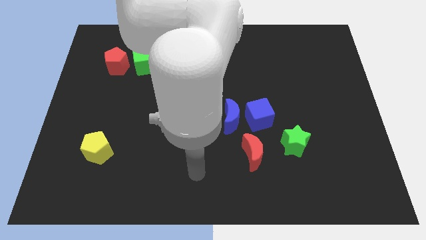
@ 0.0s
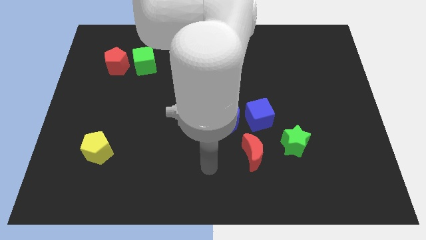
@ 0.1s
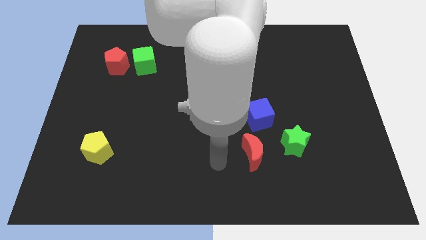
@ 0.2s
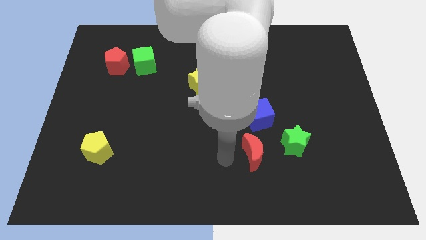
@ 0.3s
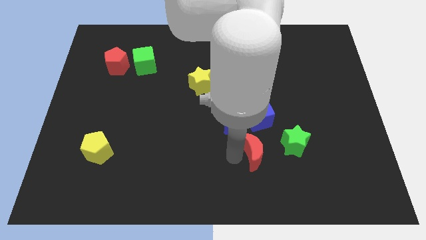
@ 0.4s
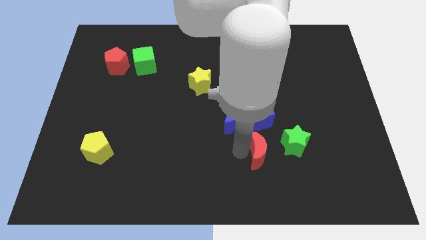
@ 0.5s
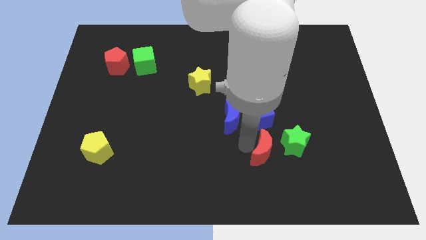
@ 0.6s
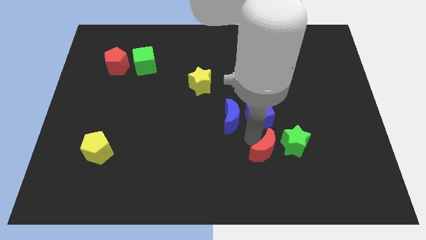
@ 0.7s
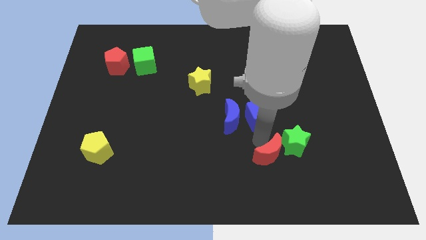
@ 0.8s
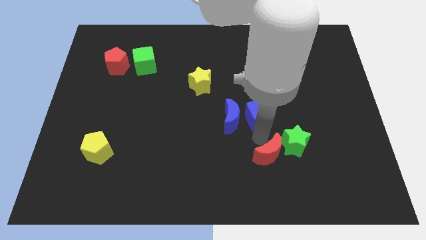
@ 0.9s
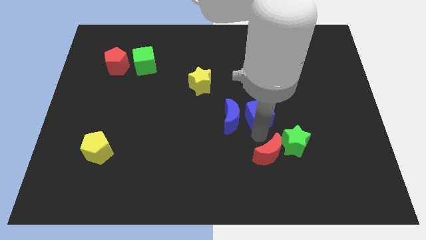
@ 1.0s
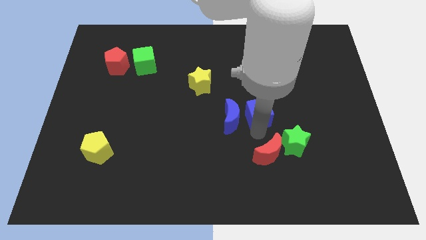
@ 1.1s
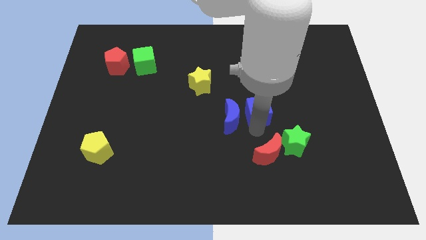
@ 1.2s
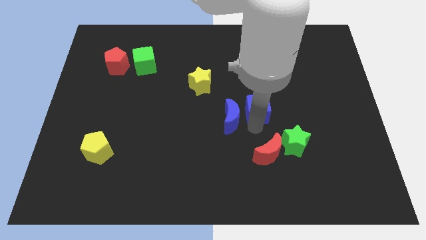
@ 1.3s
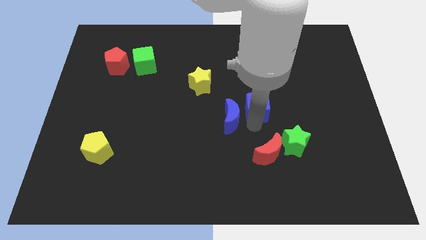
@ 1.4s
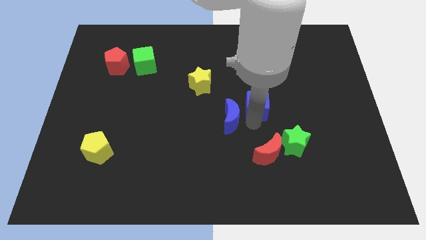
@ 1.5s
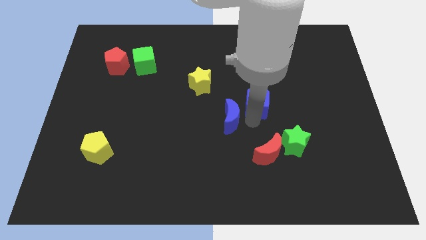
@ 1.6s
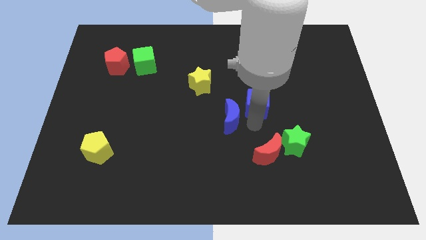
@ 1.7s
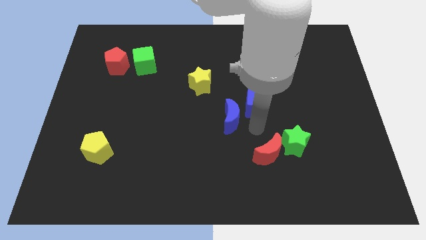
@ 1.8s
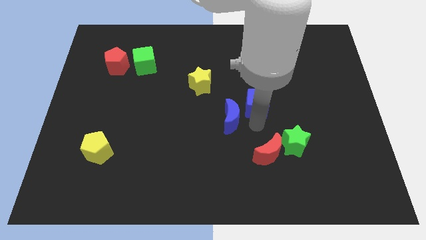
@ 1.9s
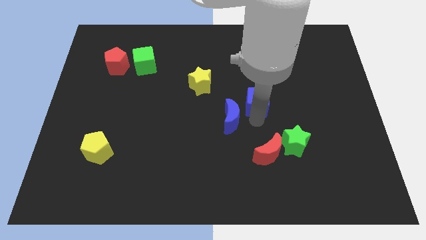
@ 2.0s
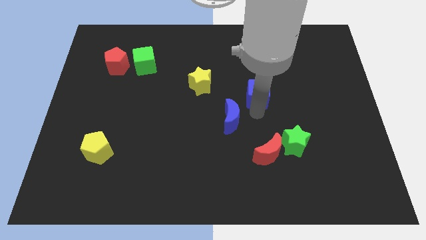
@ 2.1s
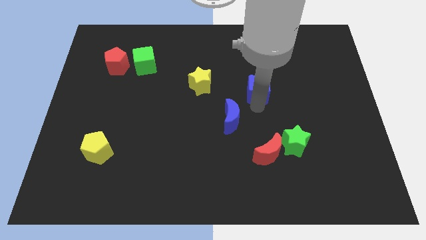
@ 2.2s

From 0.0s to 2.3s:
push the blue cube upwards a little

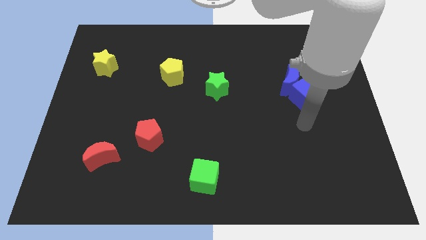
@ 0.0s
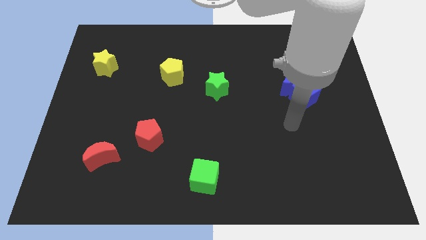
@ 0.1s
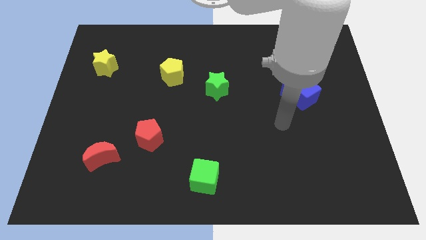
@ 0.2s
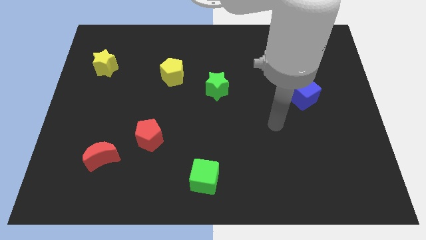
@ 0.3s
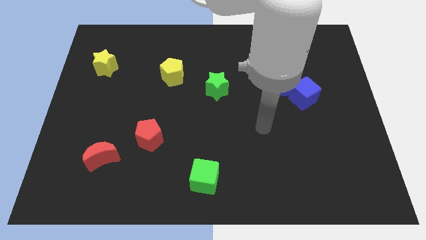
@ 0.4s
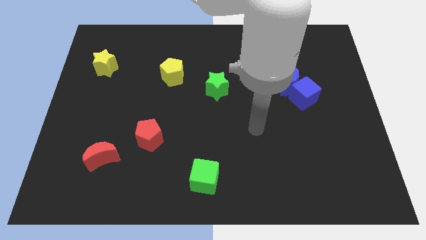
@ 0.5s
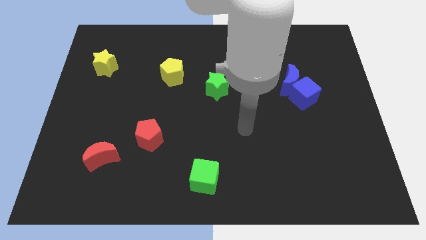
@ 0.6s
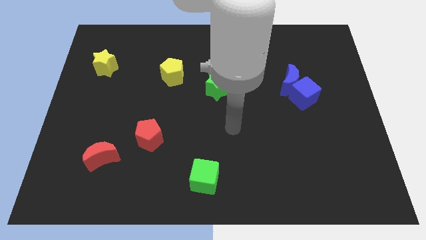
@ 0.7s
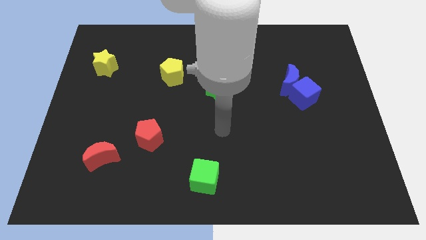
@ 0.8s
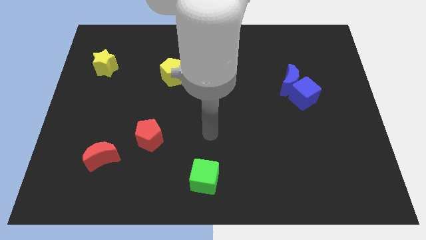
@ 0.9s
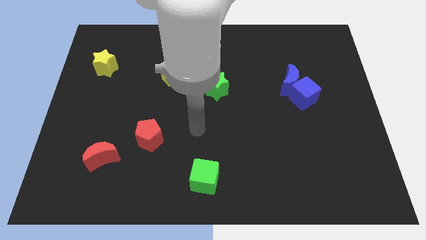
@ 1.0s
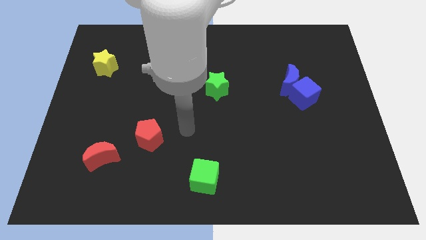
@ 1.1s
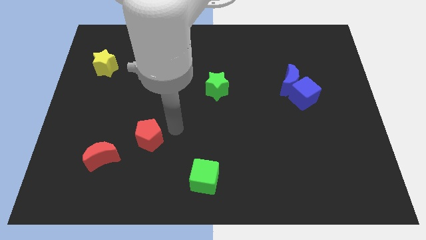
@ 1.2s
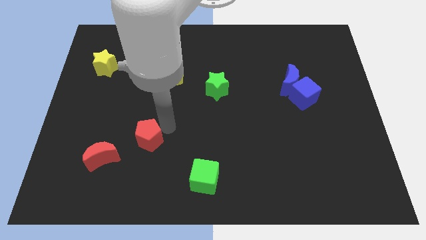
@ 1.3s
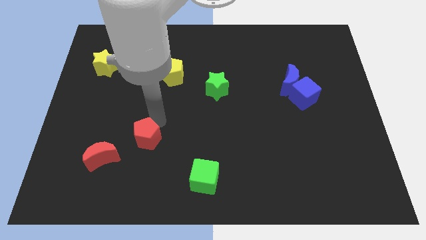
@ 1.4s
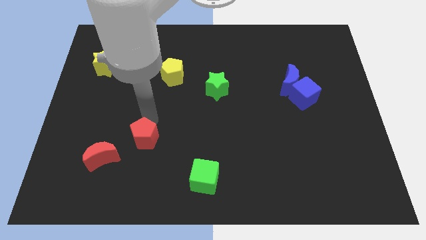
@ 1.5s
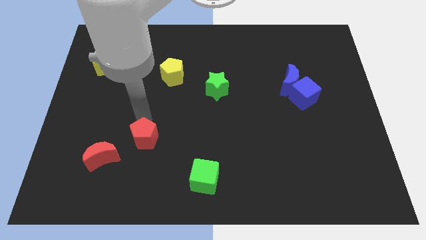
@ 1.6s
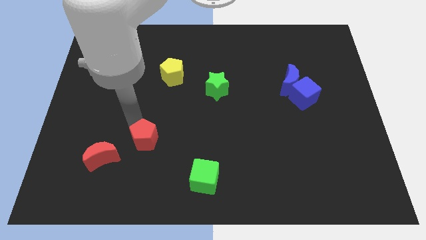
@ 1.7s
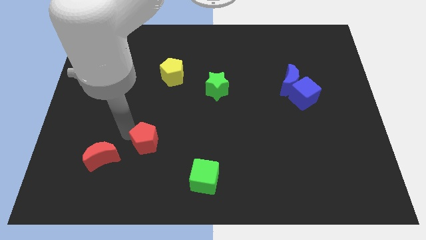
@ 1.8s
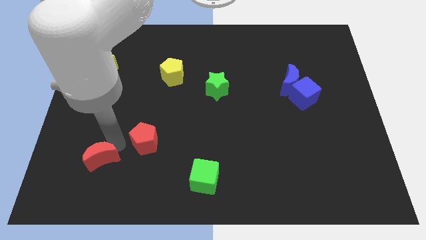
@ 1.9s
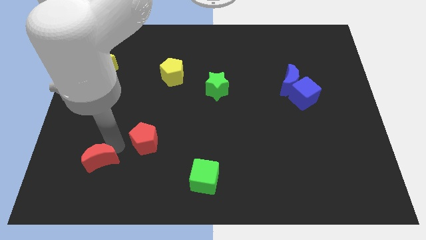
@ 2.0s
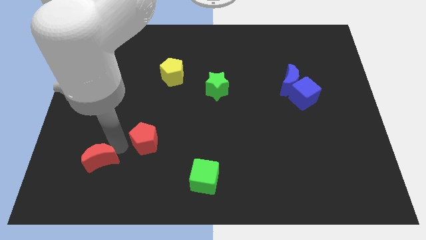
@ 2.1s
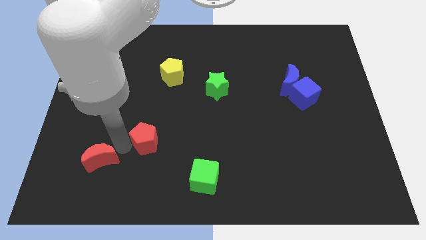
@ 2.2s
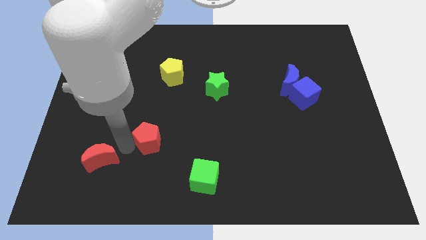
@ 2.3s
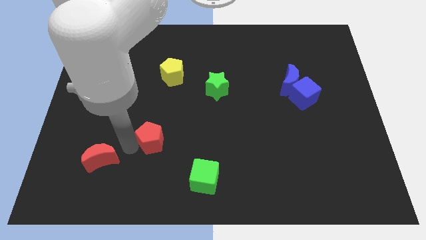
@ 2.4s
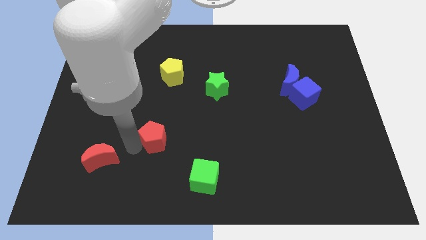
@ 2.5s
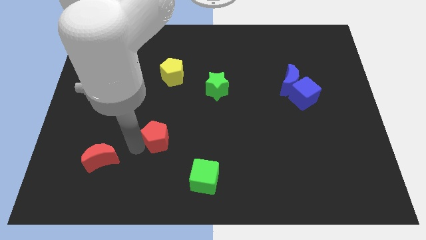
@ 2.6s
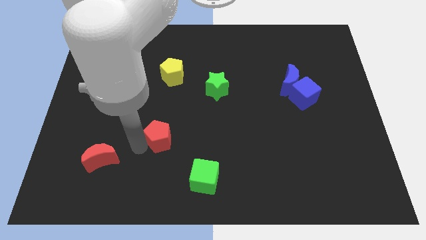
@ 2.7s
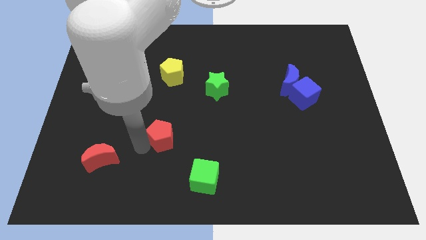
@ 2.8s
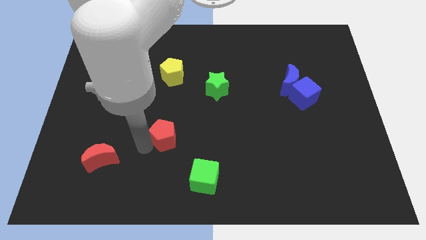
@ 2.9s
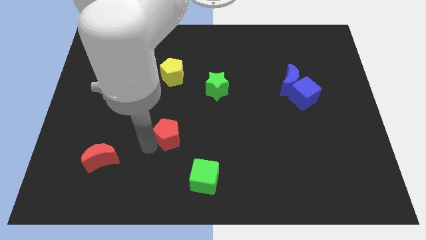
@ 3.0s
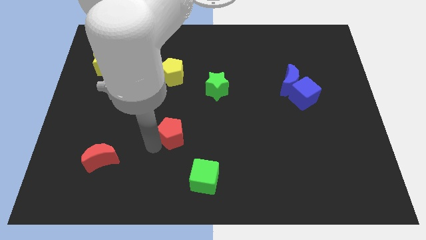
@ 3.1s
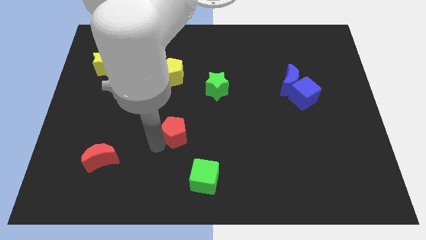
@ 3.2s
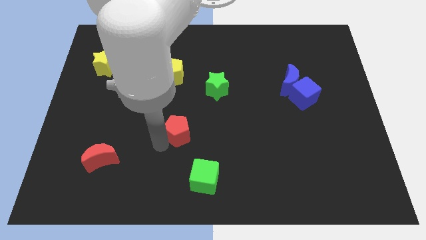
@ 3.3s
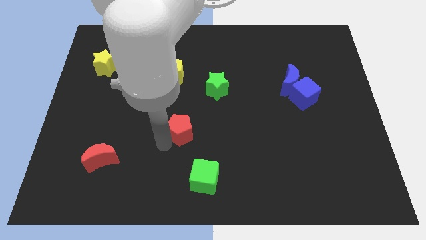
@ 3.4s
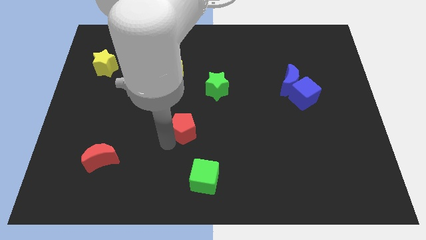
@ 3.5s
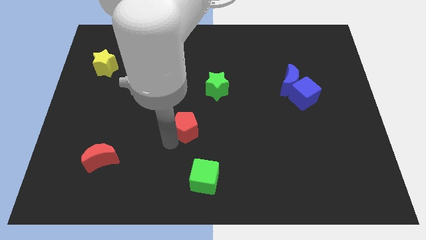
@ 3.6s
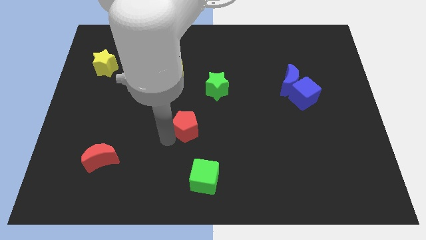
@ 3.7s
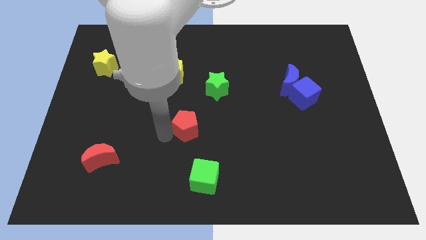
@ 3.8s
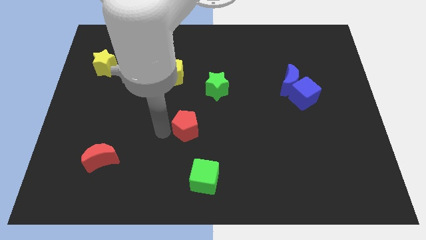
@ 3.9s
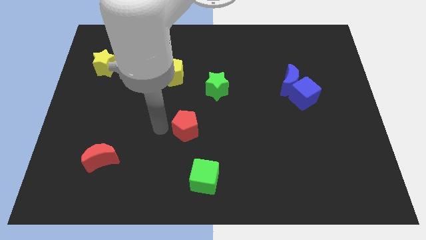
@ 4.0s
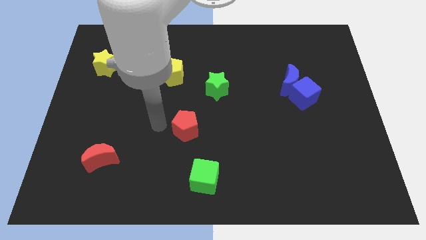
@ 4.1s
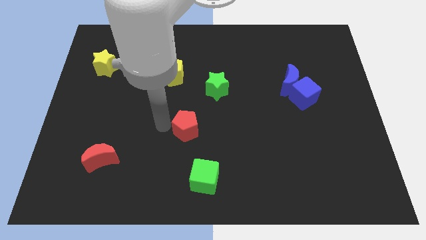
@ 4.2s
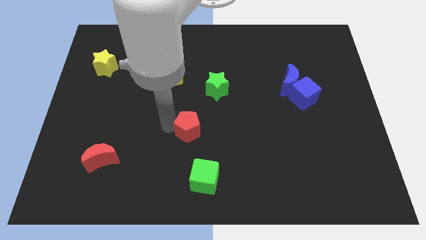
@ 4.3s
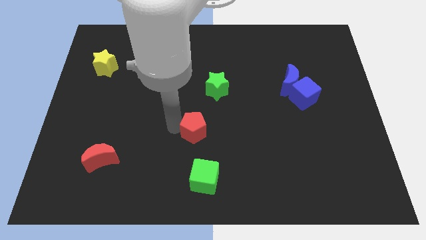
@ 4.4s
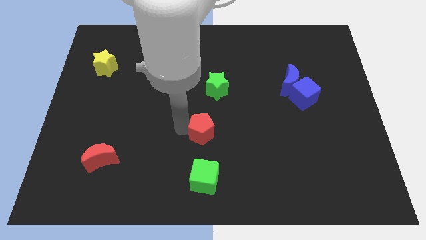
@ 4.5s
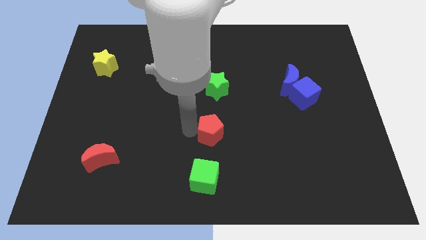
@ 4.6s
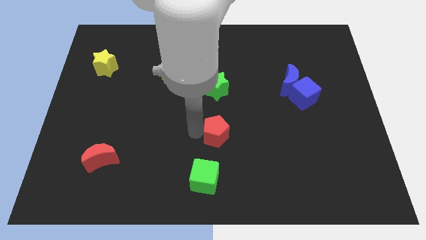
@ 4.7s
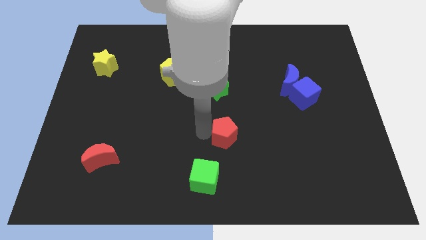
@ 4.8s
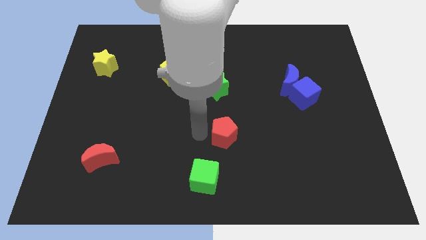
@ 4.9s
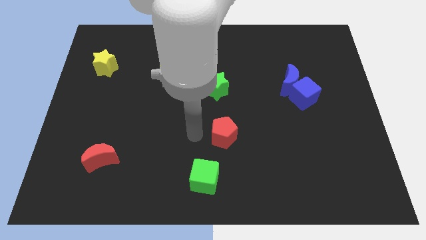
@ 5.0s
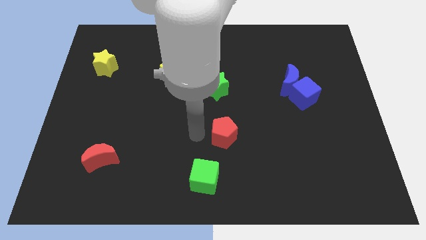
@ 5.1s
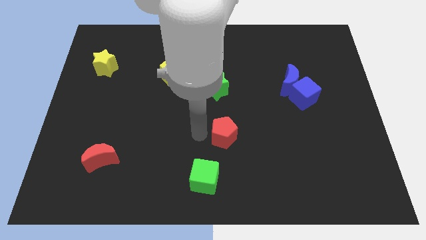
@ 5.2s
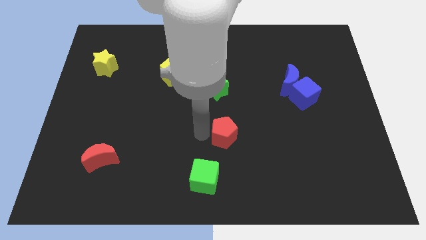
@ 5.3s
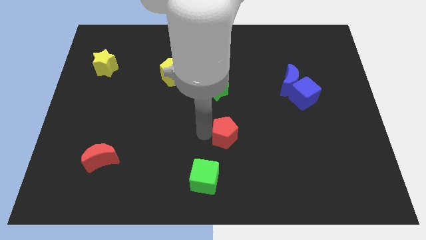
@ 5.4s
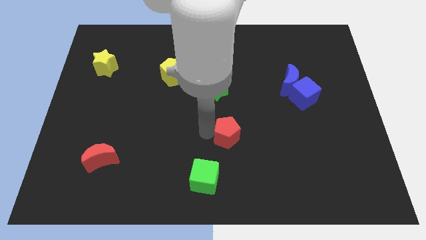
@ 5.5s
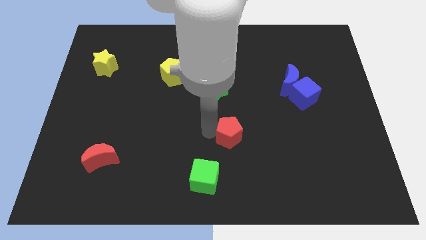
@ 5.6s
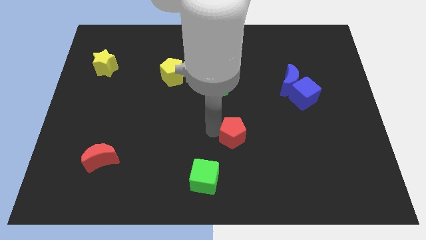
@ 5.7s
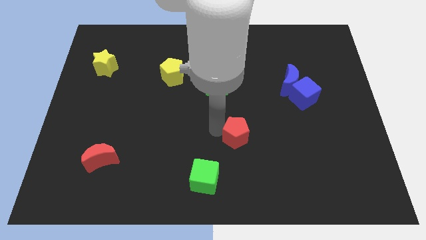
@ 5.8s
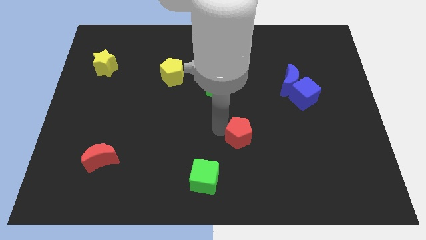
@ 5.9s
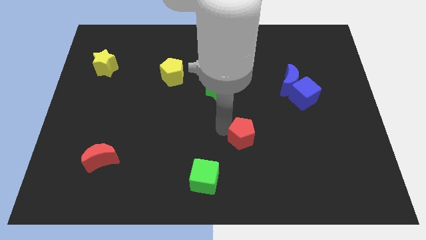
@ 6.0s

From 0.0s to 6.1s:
push the red pentagon to the right
